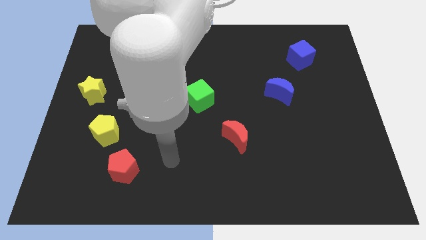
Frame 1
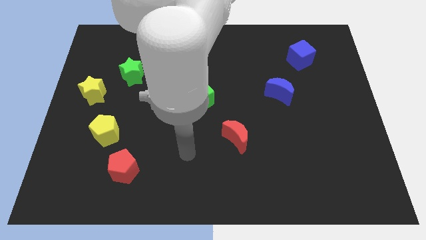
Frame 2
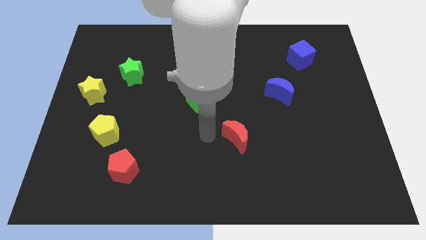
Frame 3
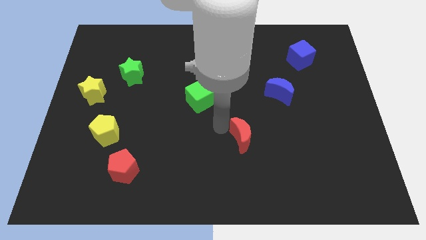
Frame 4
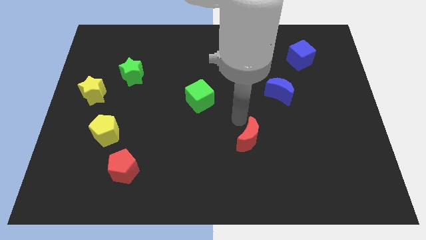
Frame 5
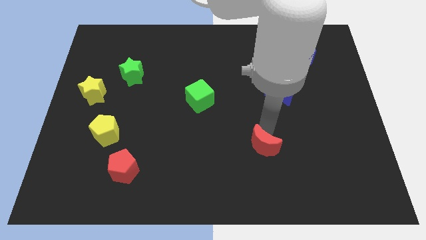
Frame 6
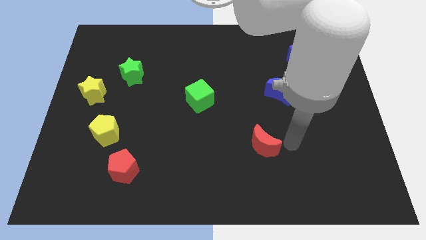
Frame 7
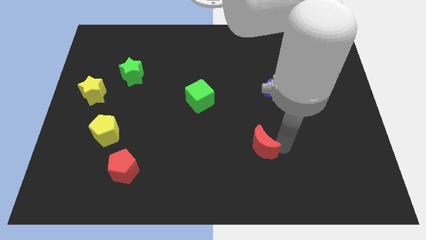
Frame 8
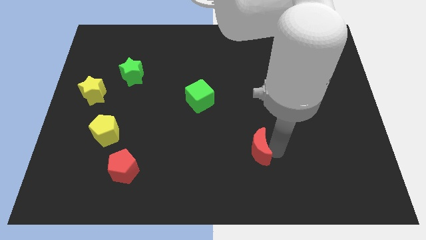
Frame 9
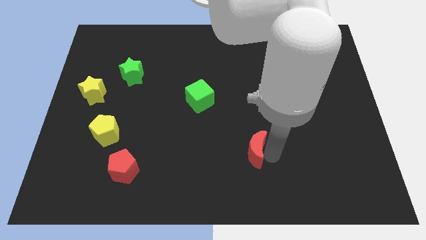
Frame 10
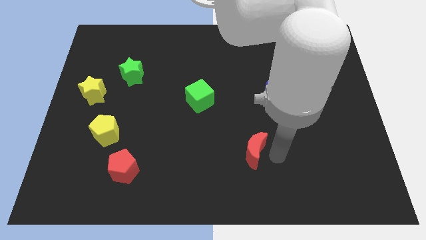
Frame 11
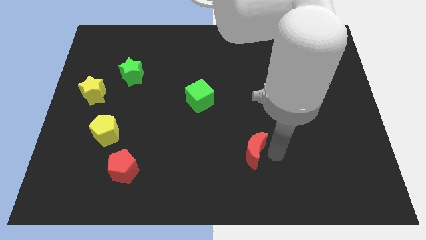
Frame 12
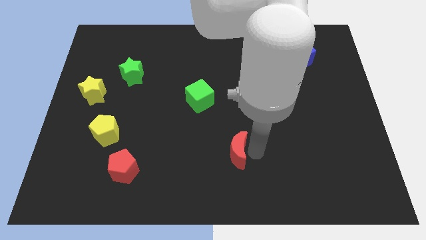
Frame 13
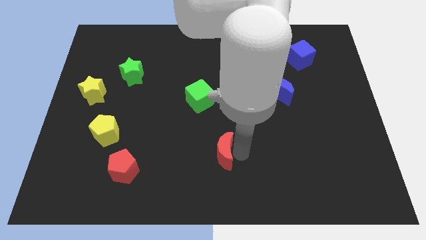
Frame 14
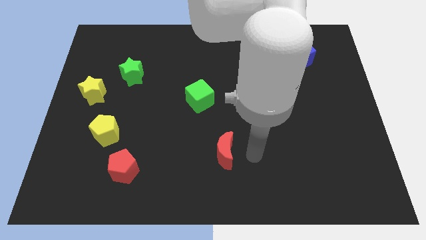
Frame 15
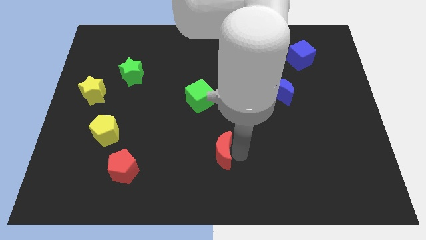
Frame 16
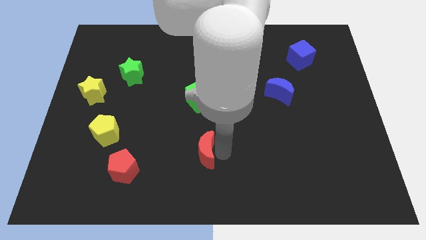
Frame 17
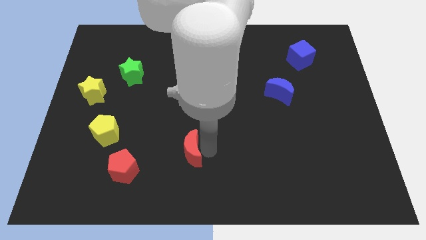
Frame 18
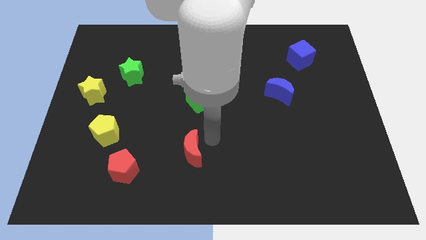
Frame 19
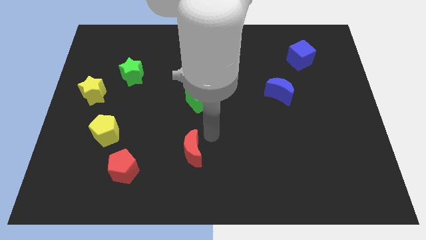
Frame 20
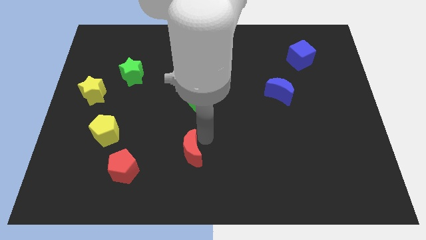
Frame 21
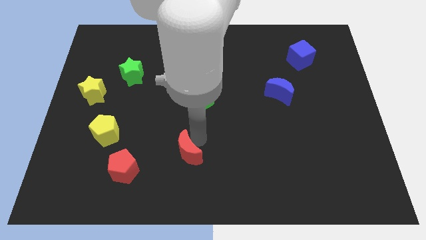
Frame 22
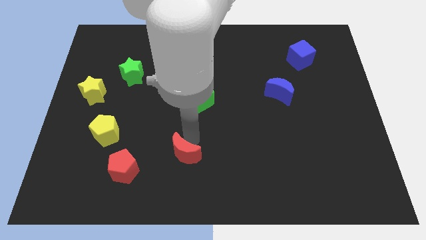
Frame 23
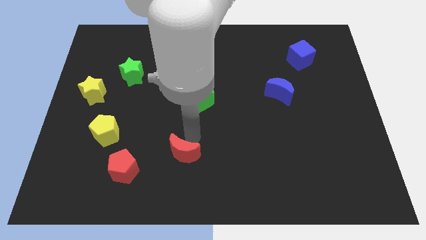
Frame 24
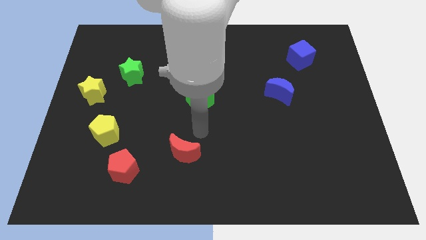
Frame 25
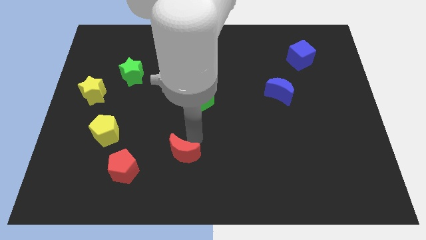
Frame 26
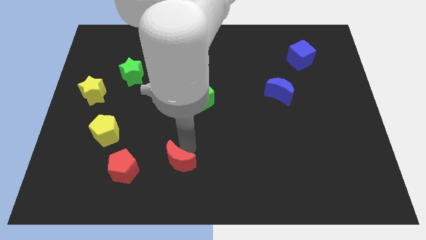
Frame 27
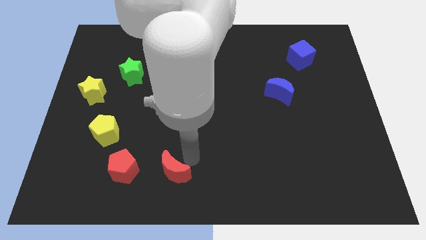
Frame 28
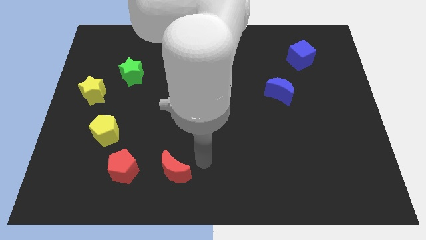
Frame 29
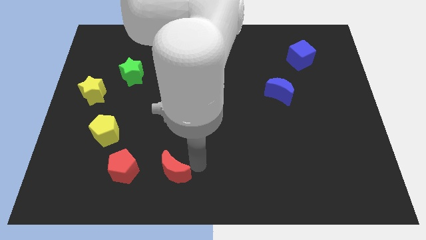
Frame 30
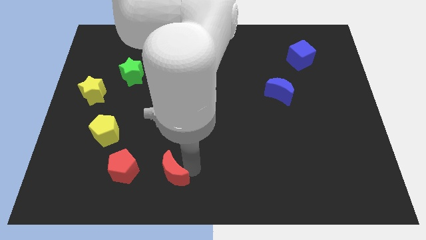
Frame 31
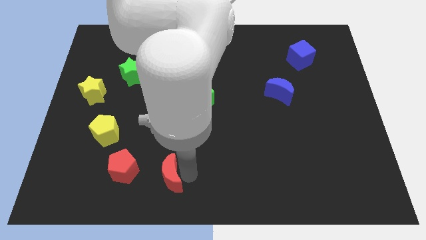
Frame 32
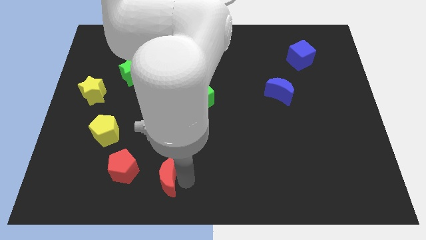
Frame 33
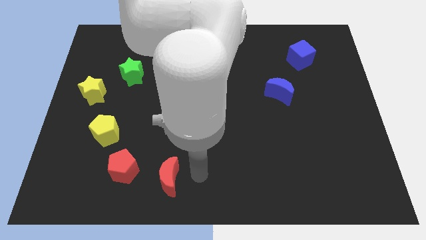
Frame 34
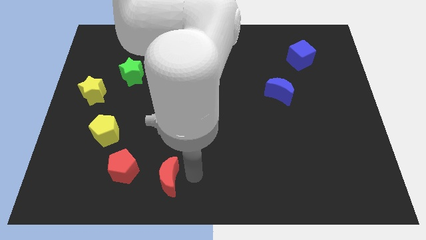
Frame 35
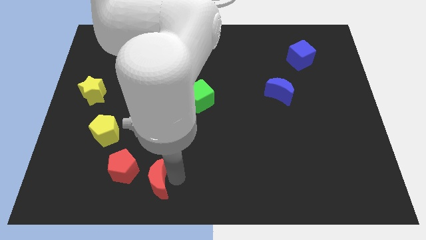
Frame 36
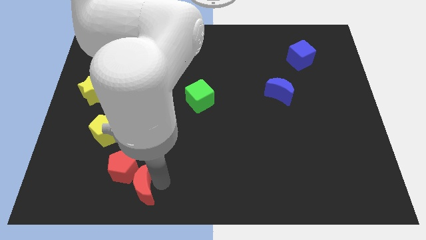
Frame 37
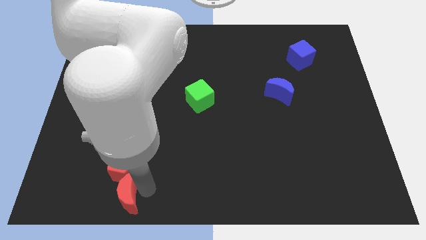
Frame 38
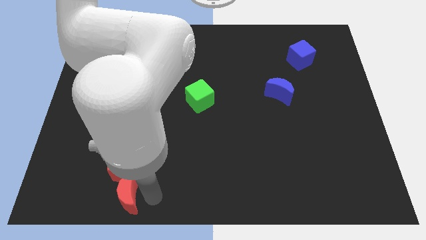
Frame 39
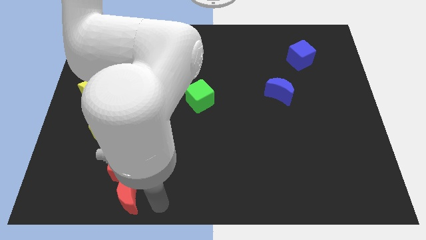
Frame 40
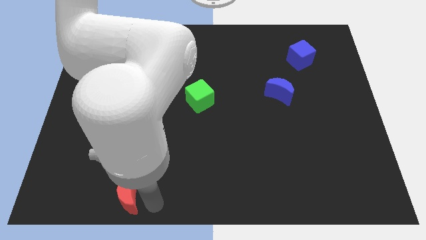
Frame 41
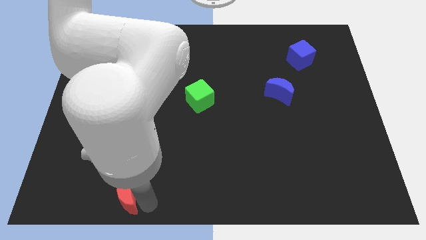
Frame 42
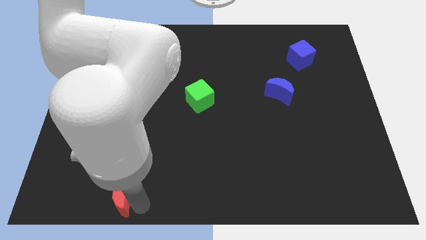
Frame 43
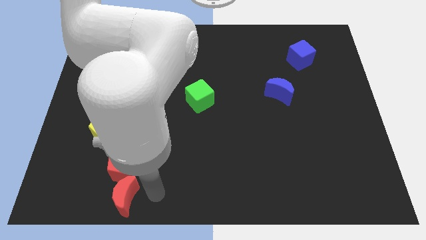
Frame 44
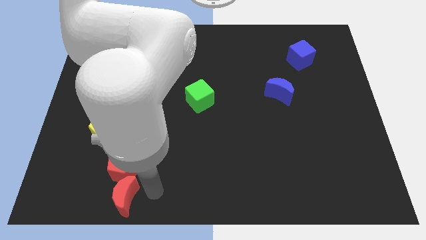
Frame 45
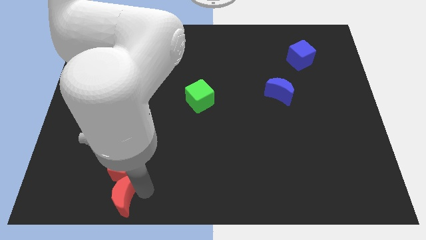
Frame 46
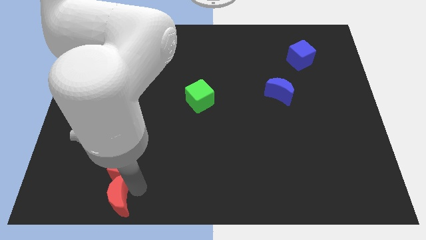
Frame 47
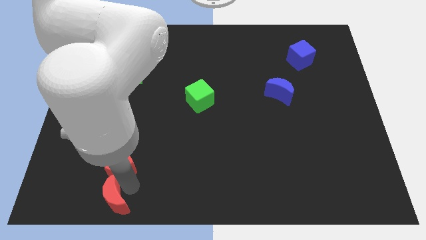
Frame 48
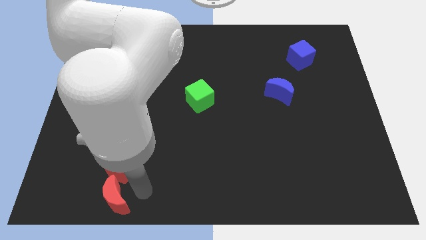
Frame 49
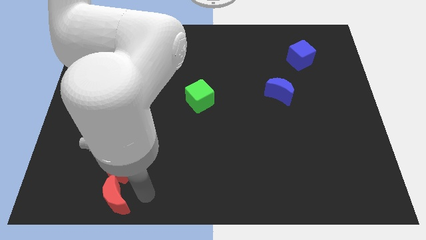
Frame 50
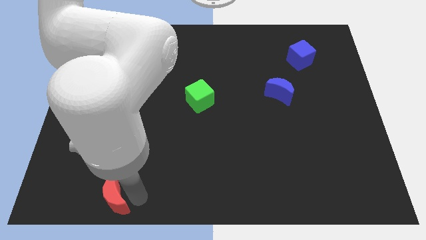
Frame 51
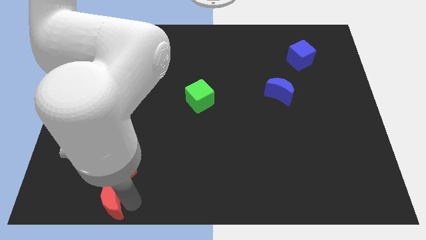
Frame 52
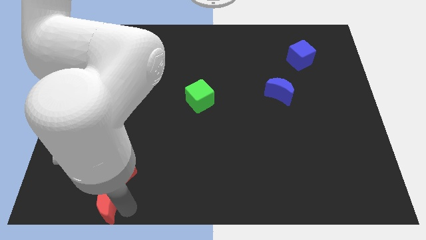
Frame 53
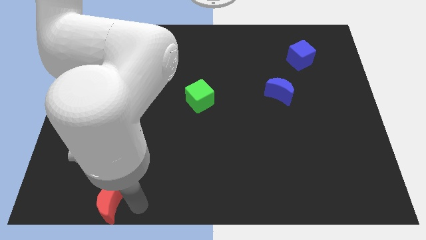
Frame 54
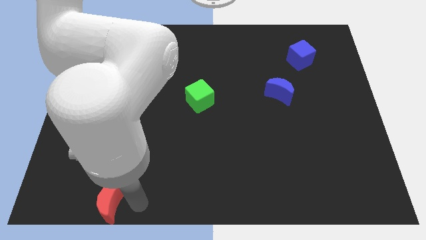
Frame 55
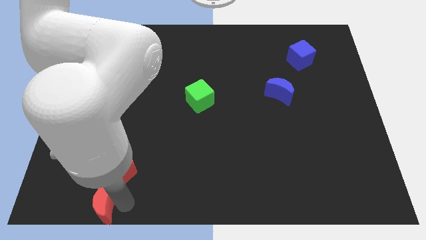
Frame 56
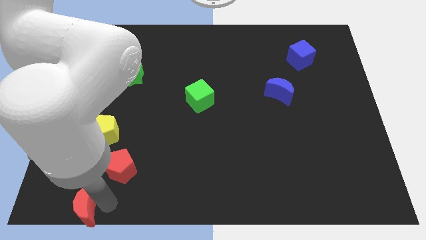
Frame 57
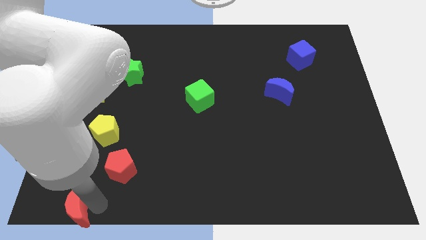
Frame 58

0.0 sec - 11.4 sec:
push the red moon to the bottom left
